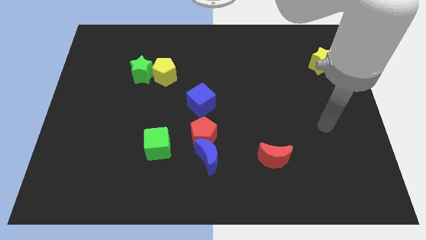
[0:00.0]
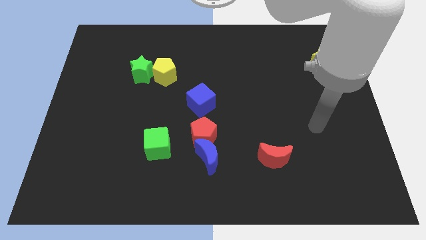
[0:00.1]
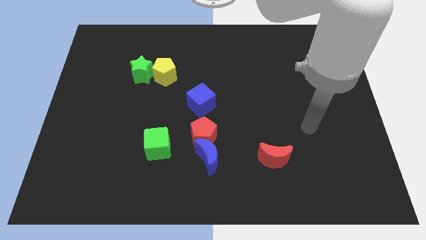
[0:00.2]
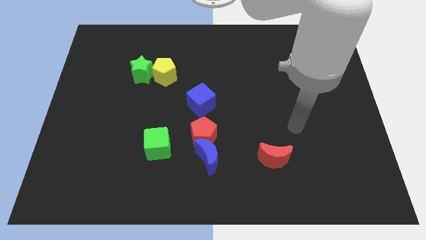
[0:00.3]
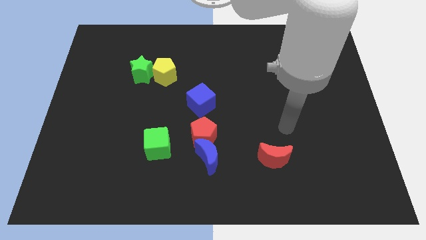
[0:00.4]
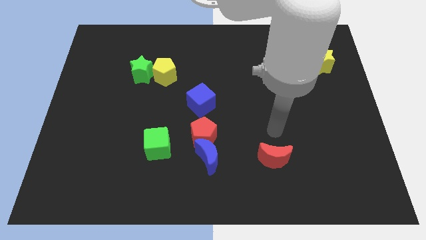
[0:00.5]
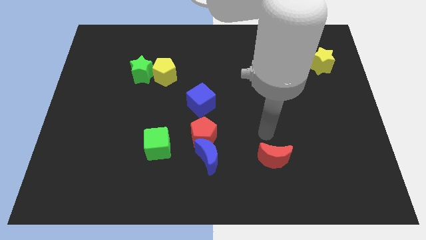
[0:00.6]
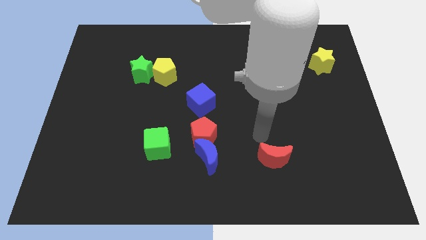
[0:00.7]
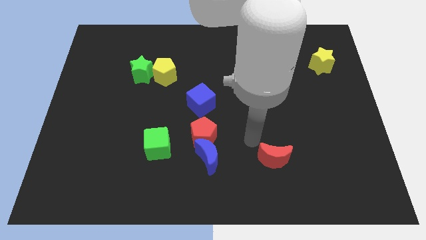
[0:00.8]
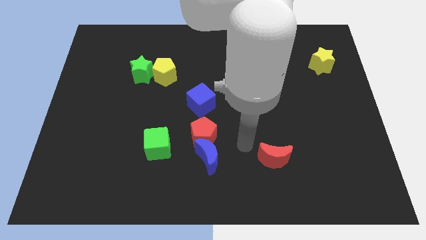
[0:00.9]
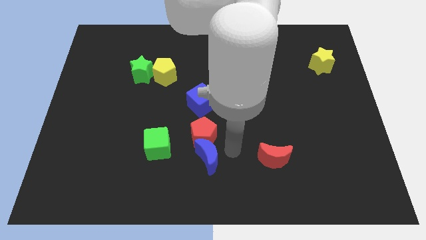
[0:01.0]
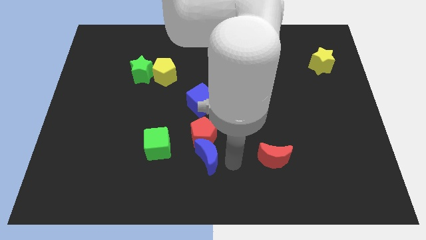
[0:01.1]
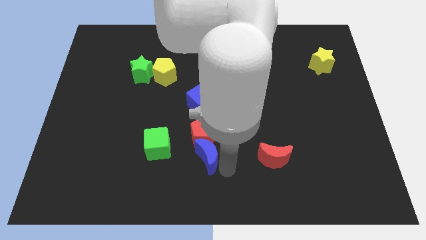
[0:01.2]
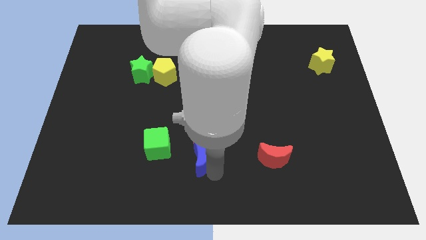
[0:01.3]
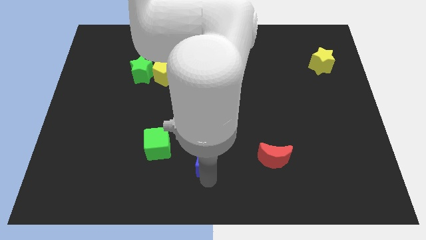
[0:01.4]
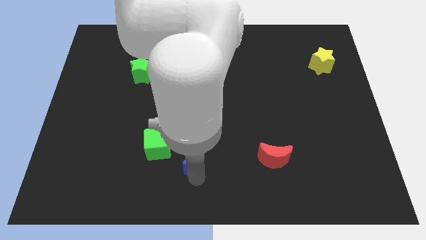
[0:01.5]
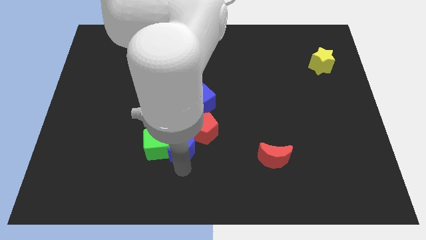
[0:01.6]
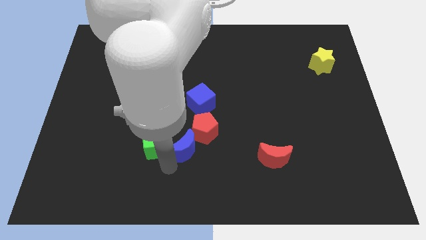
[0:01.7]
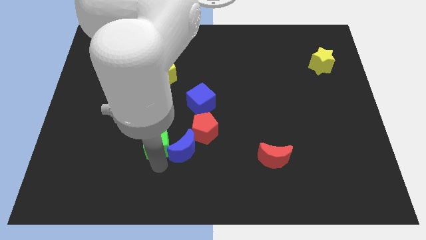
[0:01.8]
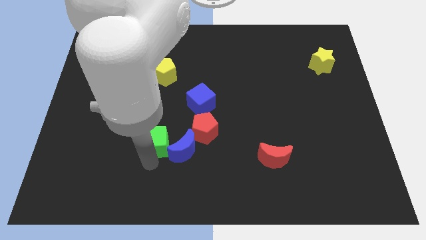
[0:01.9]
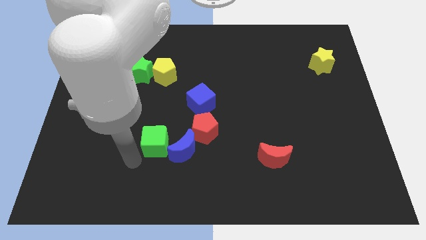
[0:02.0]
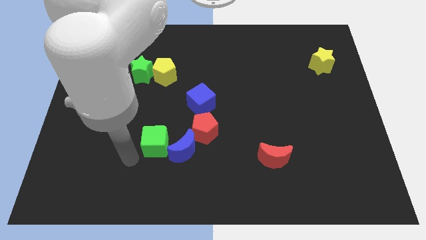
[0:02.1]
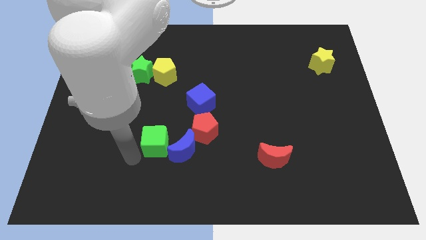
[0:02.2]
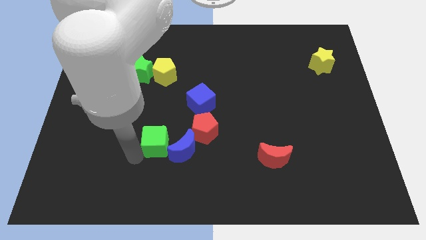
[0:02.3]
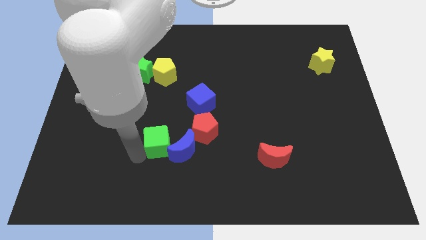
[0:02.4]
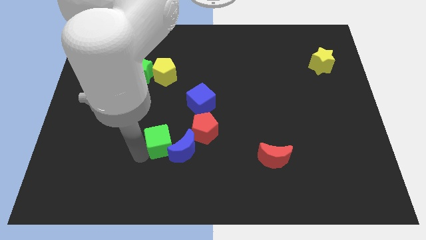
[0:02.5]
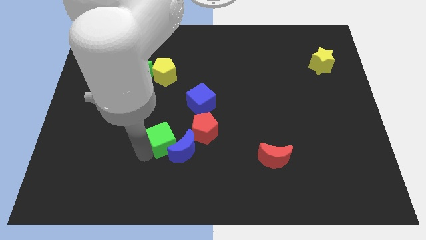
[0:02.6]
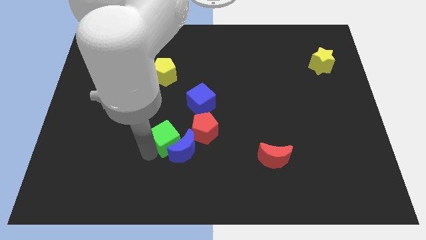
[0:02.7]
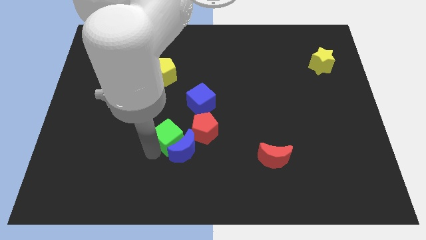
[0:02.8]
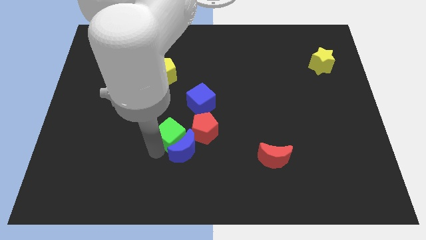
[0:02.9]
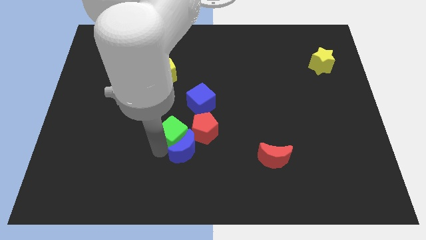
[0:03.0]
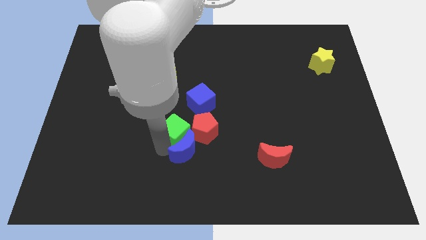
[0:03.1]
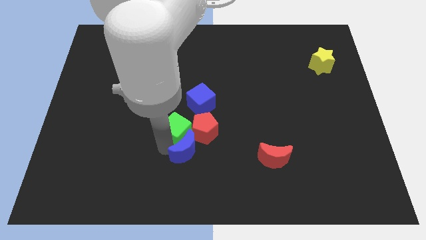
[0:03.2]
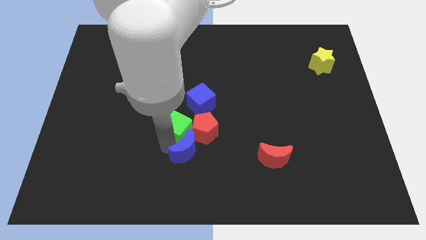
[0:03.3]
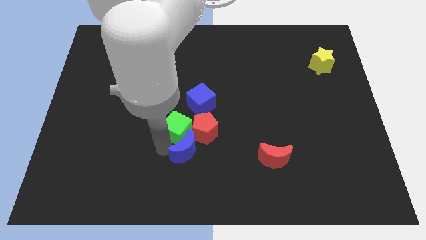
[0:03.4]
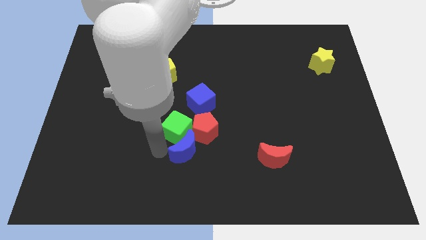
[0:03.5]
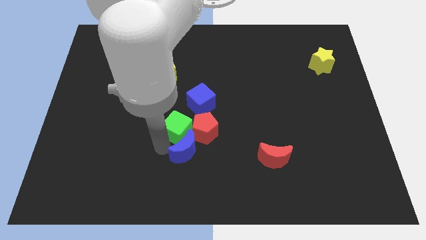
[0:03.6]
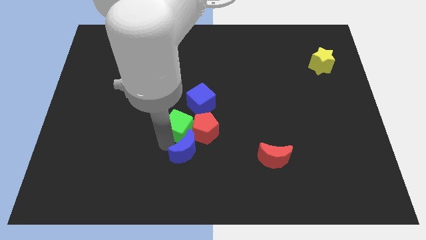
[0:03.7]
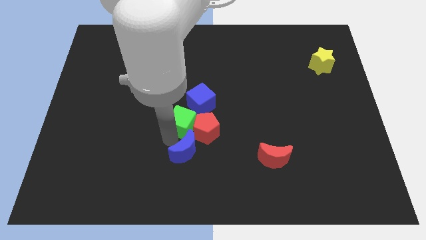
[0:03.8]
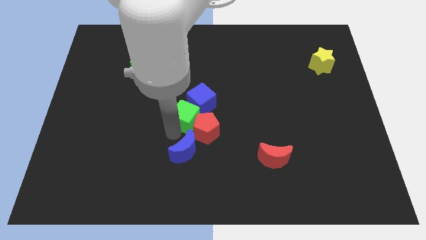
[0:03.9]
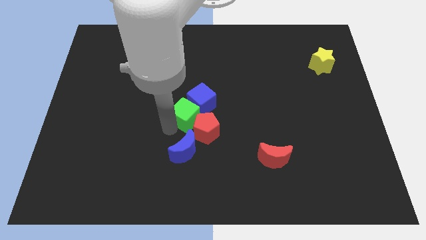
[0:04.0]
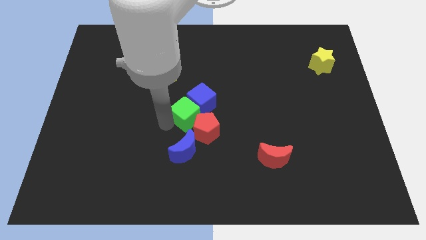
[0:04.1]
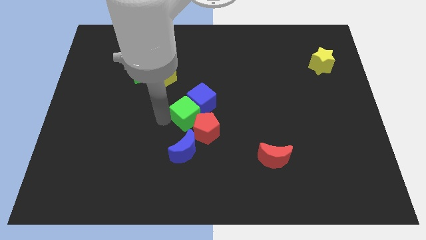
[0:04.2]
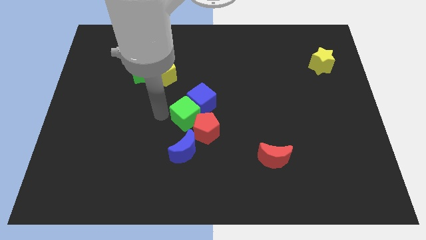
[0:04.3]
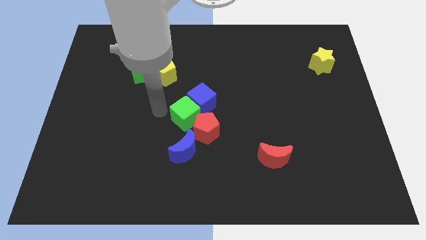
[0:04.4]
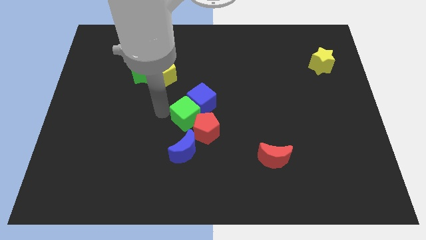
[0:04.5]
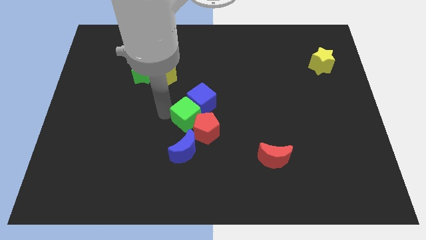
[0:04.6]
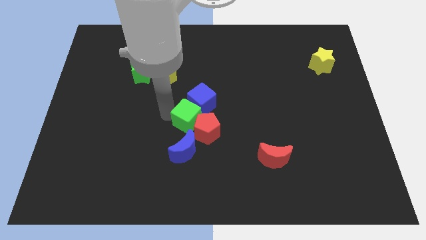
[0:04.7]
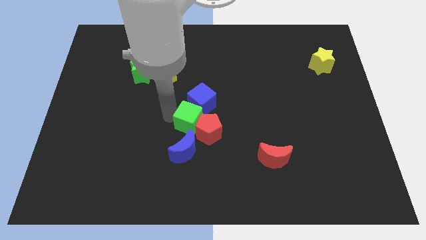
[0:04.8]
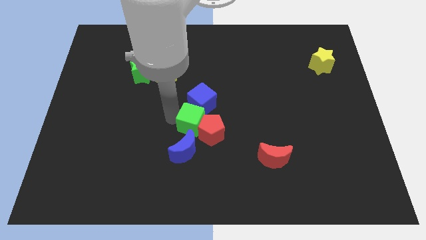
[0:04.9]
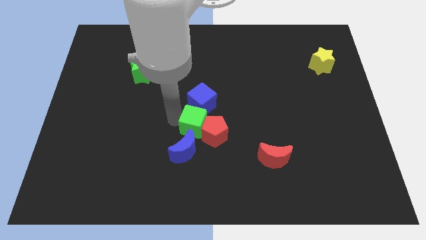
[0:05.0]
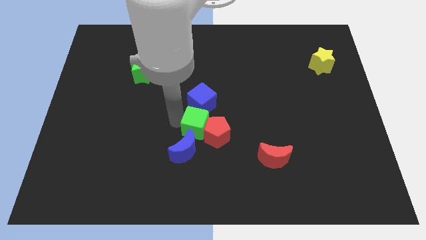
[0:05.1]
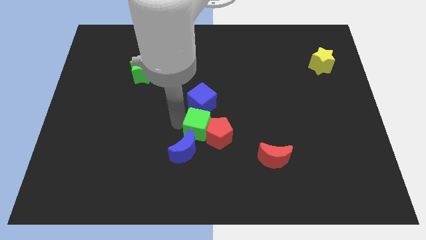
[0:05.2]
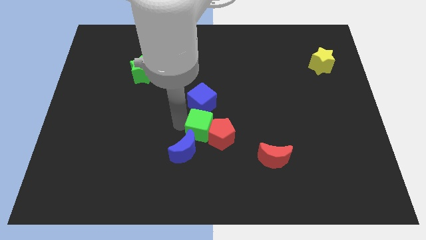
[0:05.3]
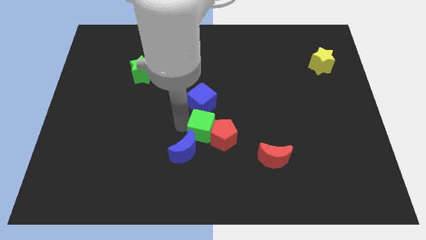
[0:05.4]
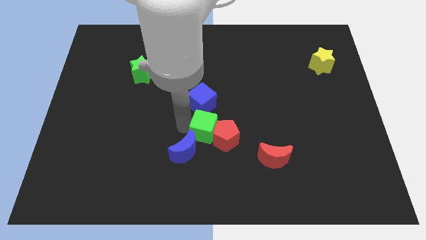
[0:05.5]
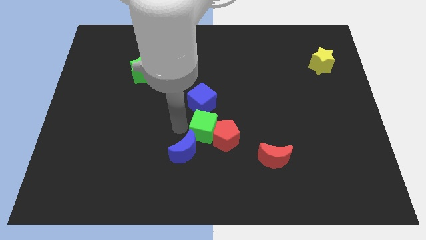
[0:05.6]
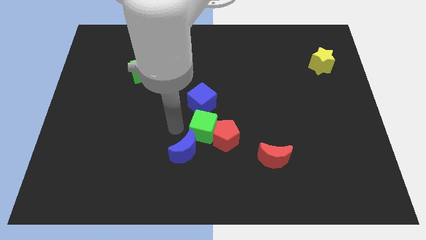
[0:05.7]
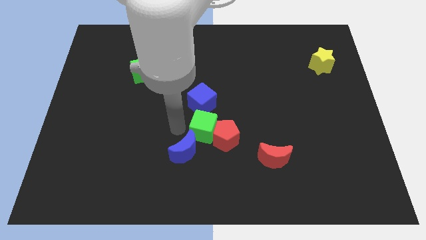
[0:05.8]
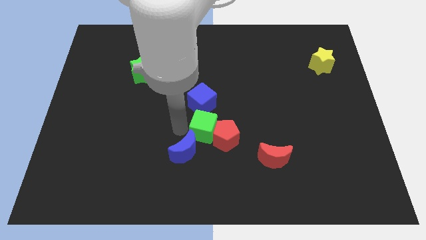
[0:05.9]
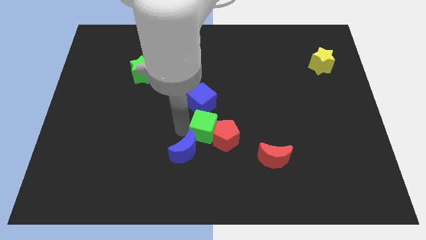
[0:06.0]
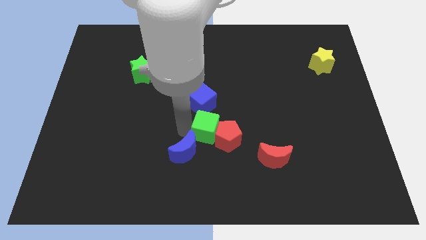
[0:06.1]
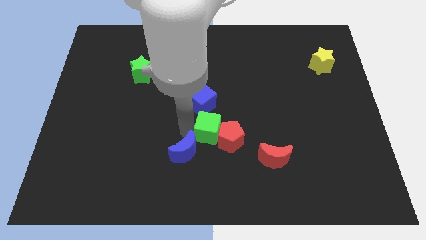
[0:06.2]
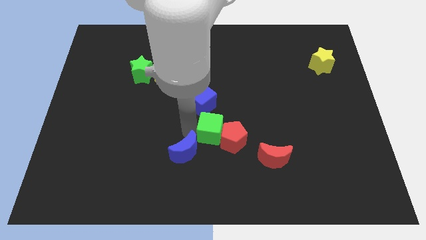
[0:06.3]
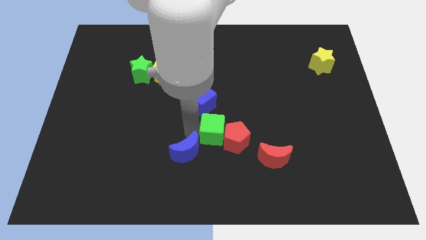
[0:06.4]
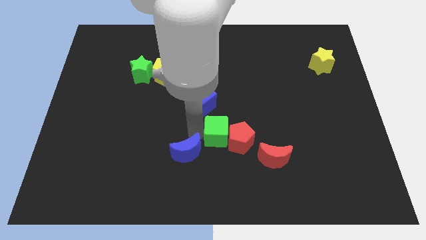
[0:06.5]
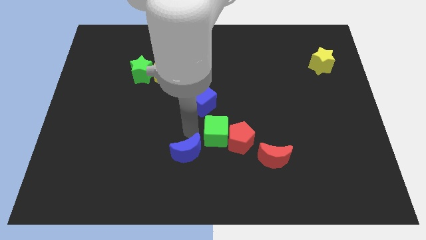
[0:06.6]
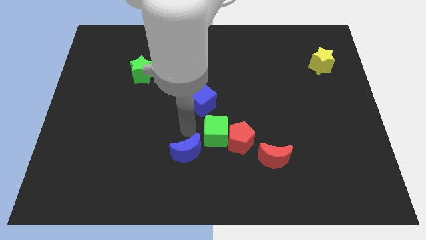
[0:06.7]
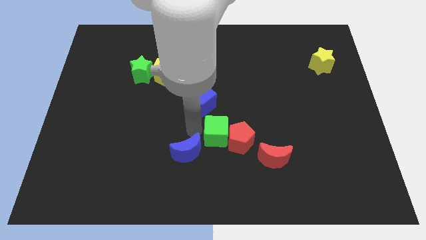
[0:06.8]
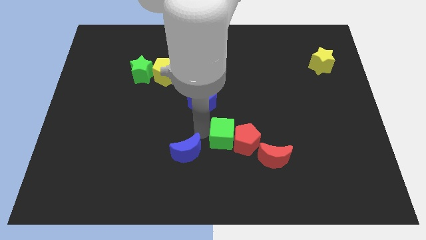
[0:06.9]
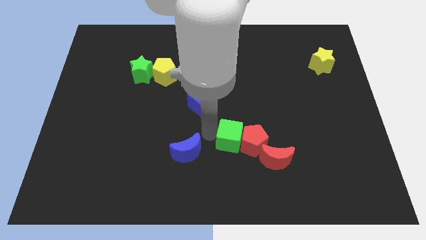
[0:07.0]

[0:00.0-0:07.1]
push the green cube to the top left of the red moon
